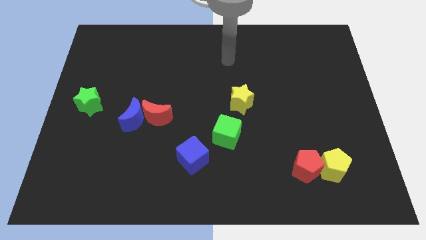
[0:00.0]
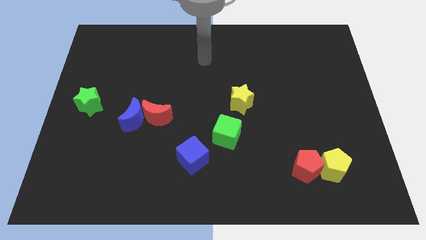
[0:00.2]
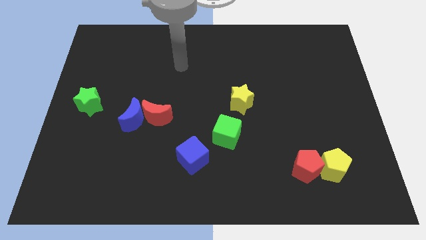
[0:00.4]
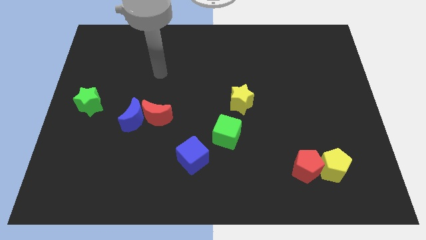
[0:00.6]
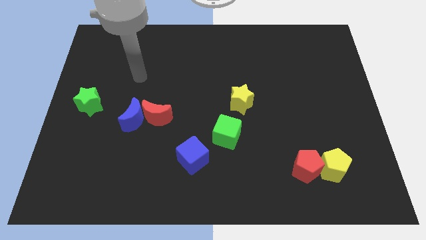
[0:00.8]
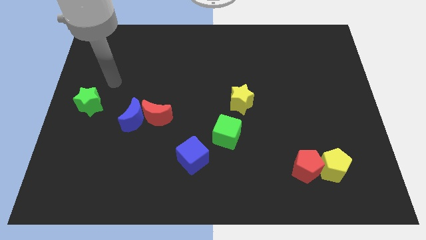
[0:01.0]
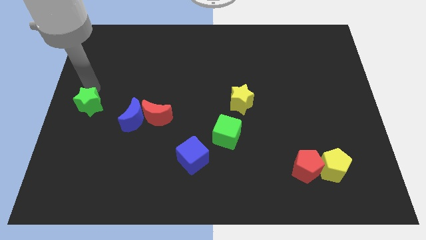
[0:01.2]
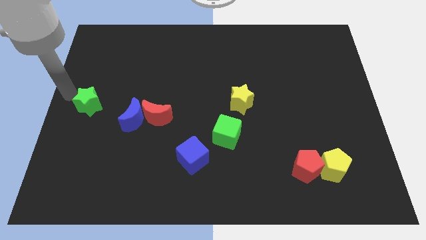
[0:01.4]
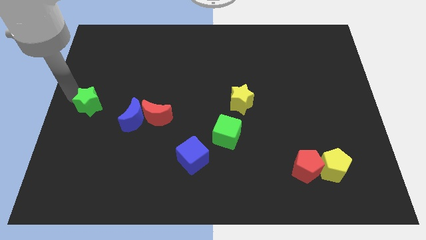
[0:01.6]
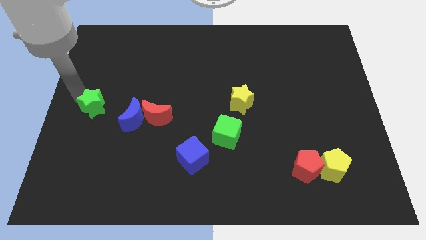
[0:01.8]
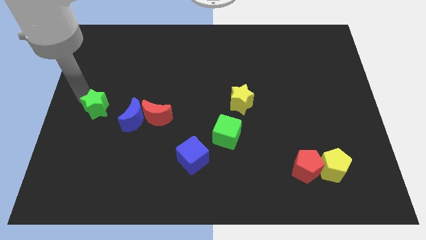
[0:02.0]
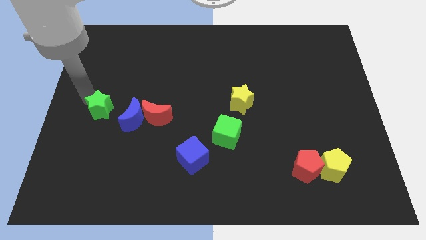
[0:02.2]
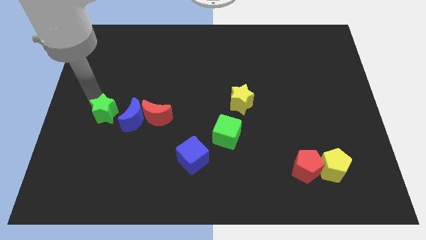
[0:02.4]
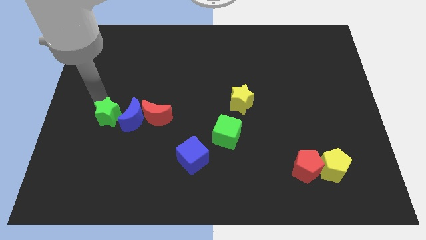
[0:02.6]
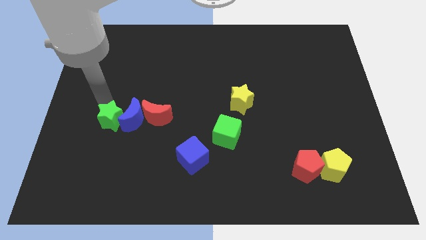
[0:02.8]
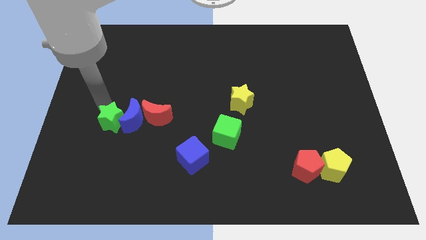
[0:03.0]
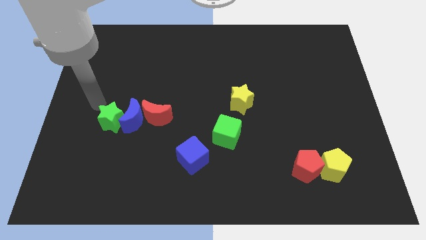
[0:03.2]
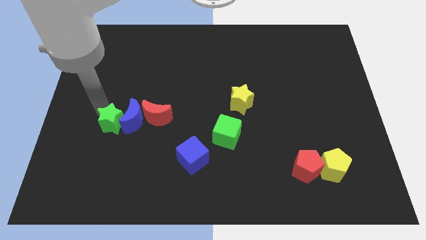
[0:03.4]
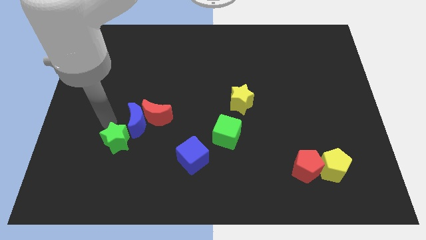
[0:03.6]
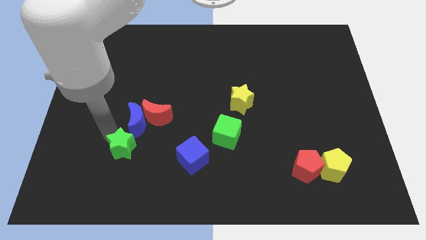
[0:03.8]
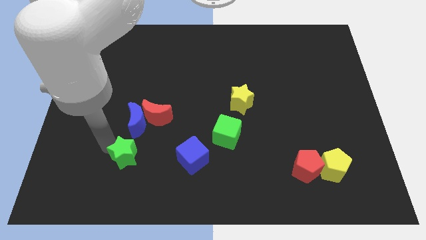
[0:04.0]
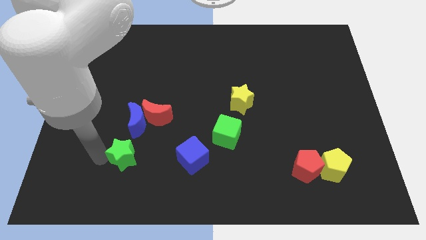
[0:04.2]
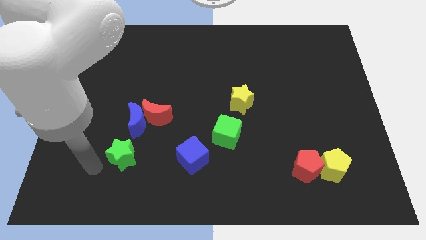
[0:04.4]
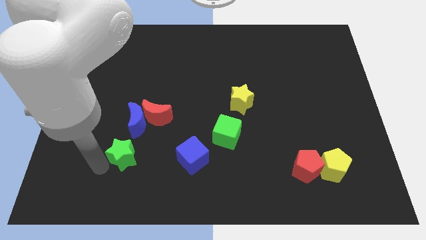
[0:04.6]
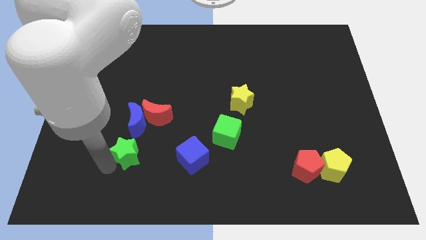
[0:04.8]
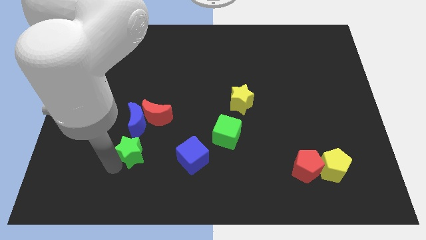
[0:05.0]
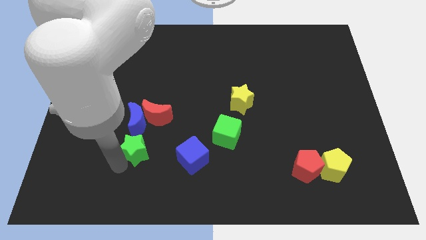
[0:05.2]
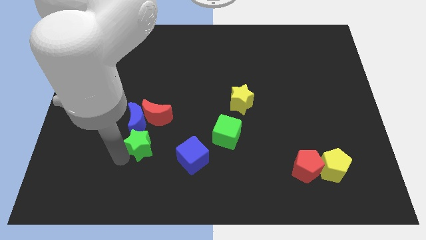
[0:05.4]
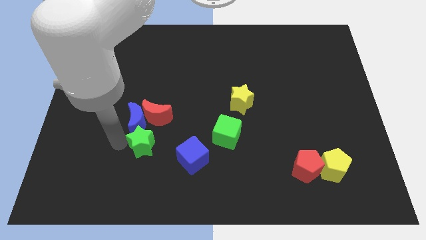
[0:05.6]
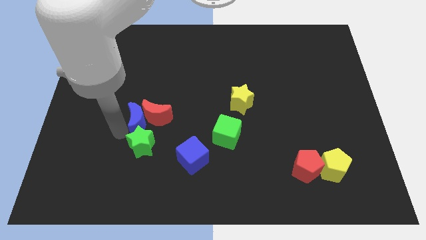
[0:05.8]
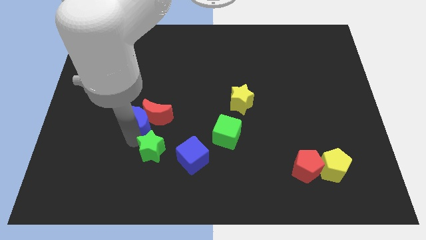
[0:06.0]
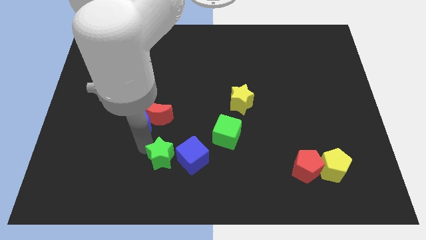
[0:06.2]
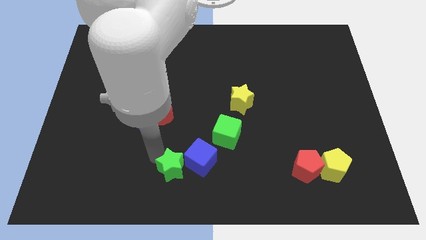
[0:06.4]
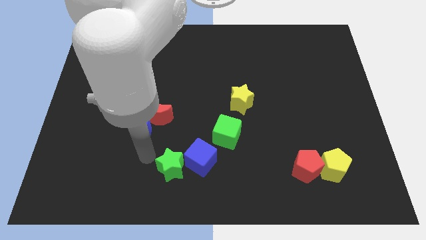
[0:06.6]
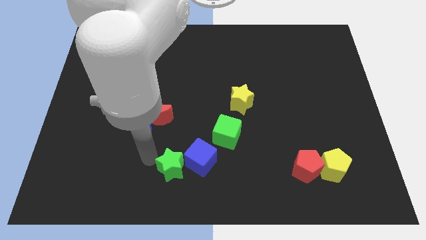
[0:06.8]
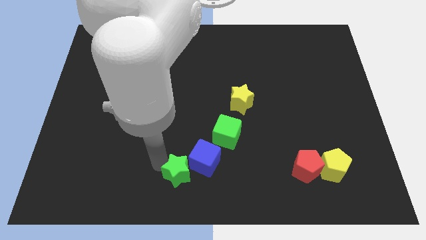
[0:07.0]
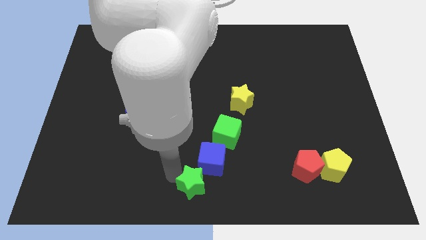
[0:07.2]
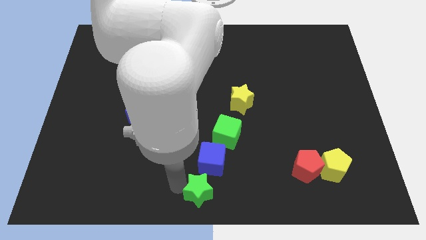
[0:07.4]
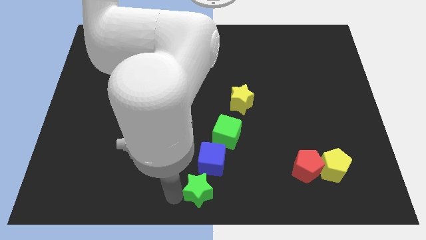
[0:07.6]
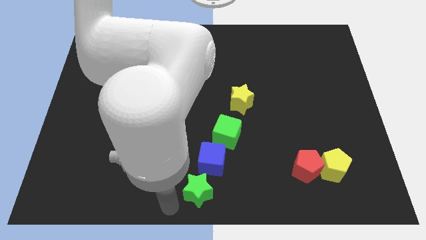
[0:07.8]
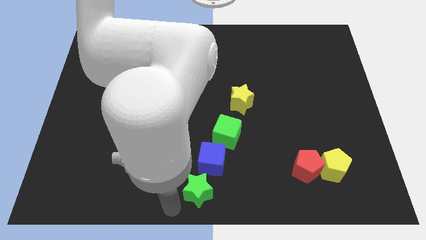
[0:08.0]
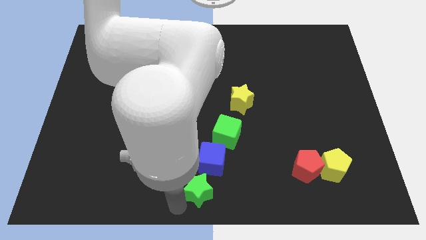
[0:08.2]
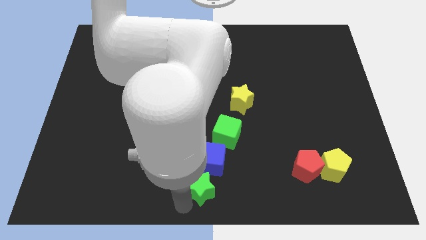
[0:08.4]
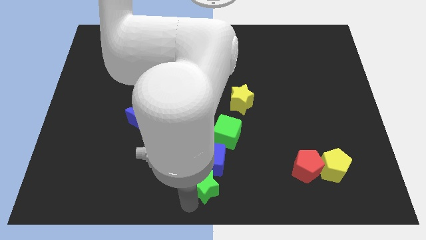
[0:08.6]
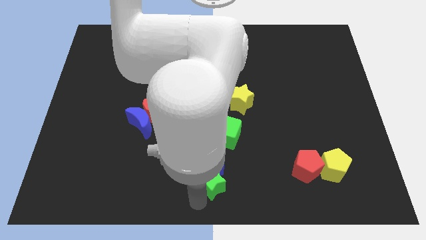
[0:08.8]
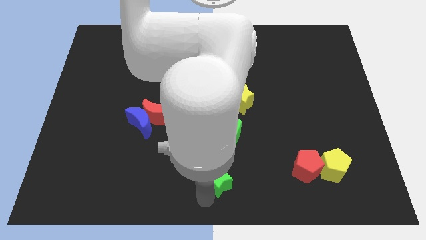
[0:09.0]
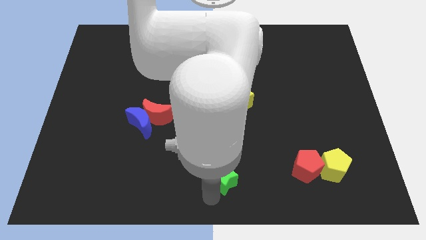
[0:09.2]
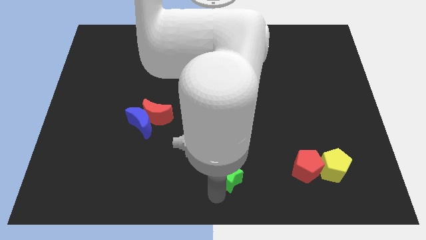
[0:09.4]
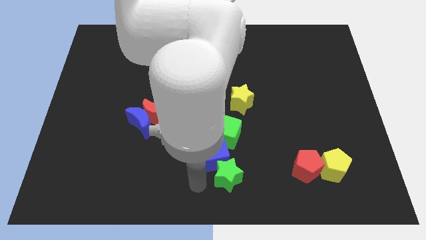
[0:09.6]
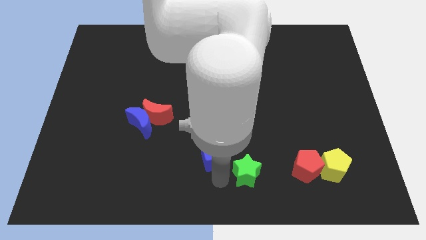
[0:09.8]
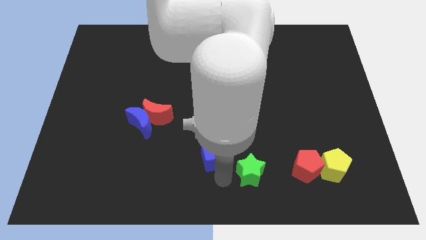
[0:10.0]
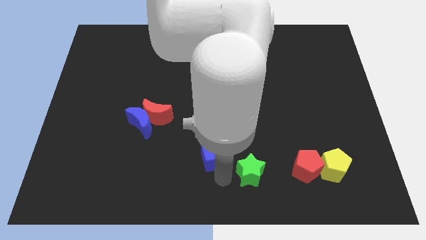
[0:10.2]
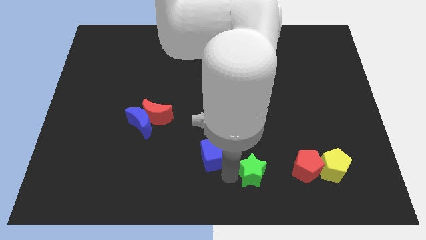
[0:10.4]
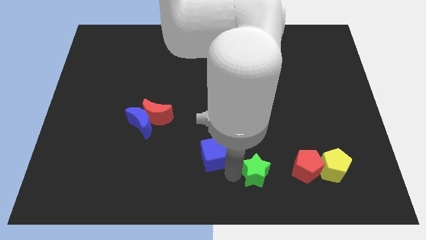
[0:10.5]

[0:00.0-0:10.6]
slide the green star just left of the yellow pentagon

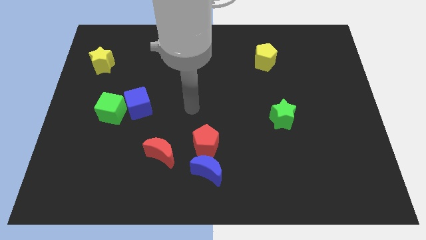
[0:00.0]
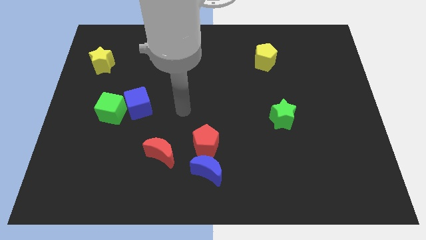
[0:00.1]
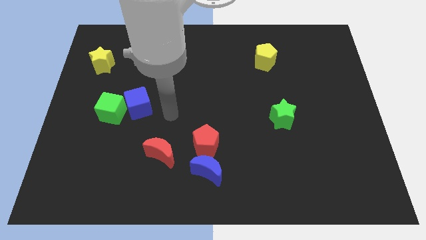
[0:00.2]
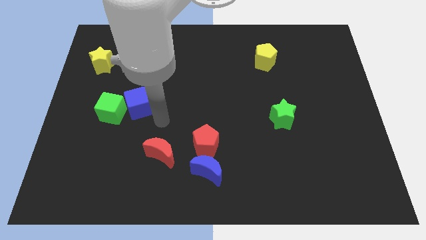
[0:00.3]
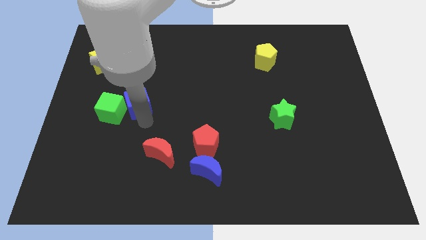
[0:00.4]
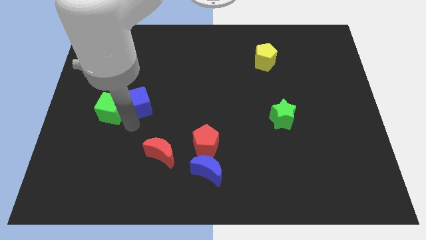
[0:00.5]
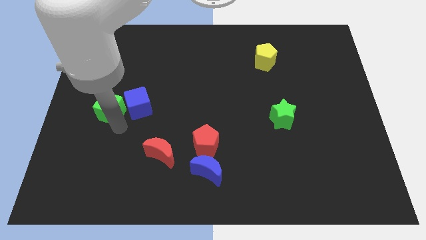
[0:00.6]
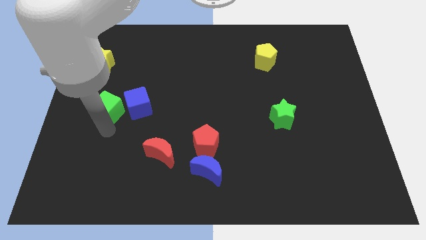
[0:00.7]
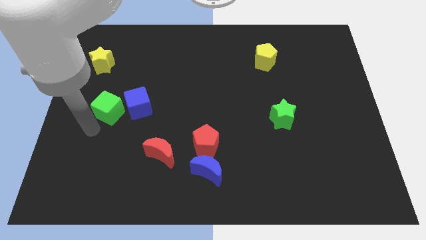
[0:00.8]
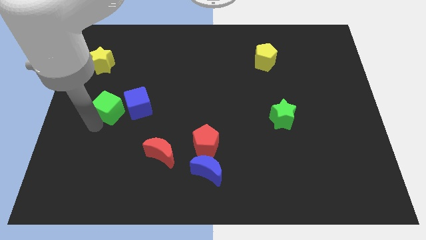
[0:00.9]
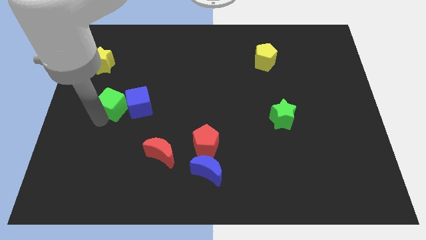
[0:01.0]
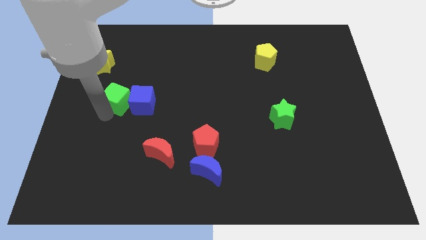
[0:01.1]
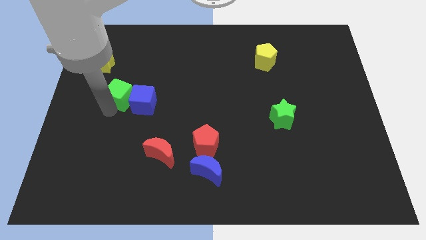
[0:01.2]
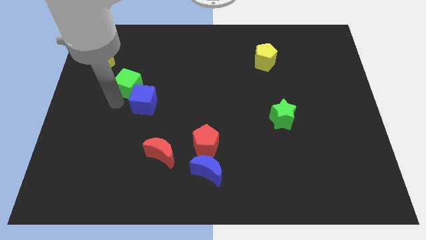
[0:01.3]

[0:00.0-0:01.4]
slide the green cube above the blue cube

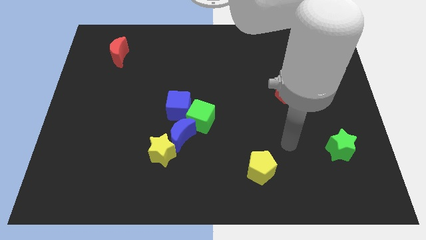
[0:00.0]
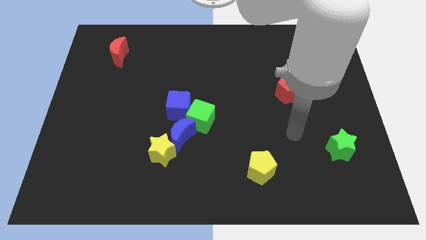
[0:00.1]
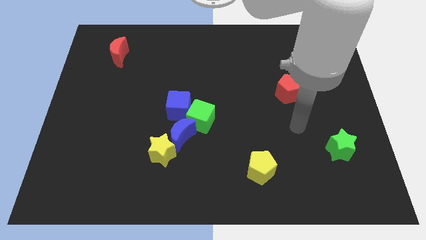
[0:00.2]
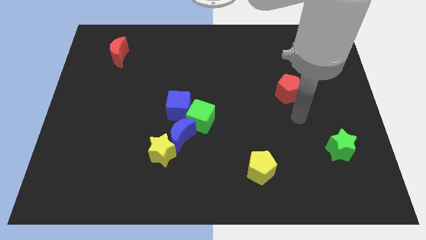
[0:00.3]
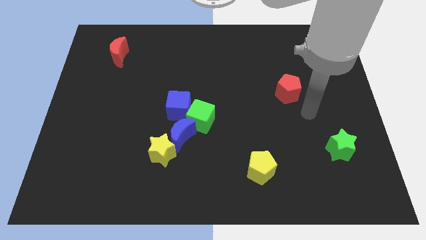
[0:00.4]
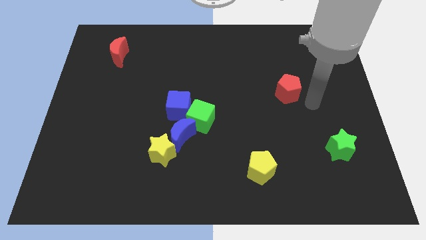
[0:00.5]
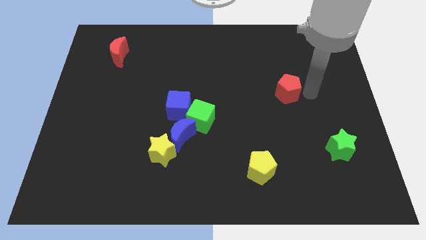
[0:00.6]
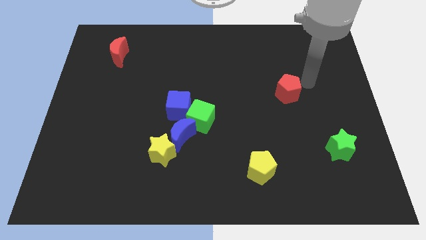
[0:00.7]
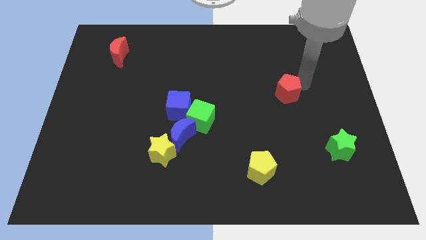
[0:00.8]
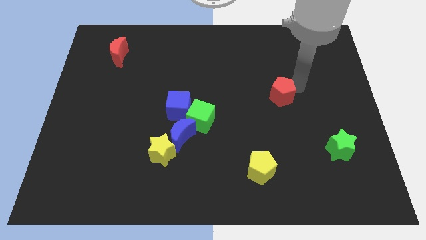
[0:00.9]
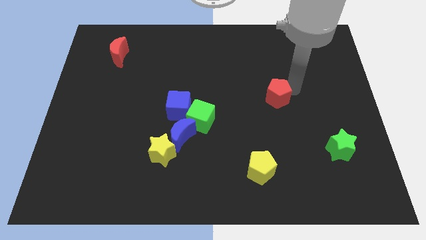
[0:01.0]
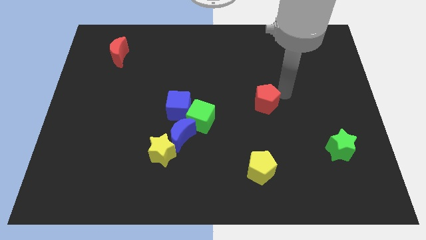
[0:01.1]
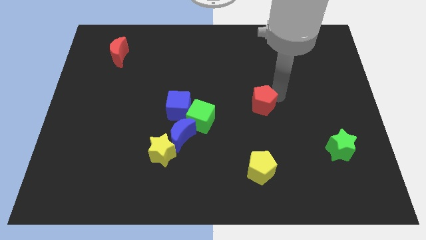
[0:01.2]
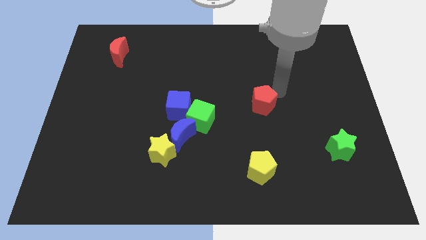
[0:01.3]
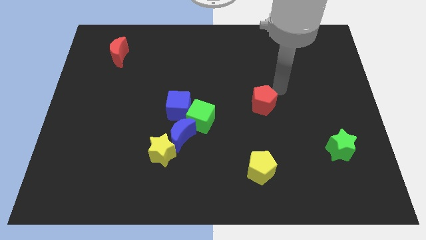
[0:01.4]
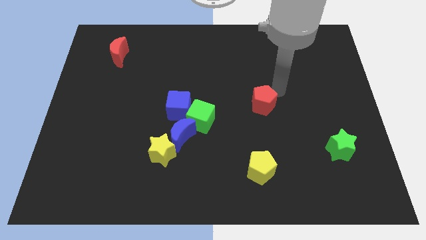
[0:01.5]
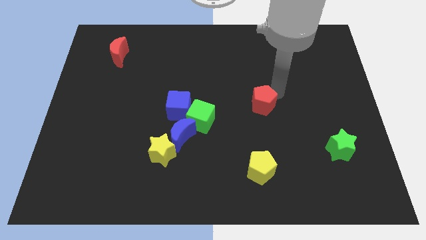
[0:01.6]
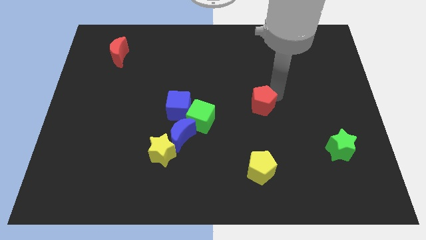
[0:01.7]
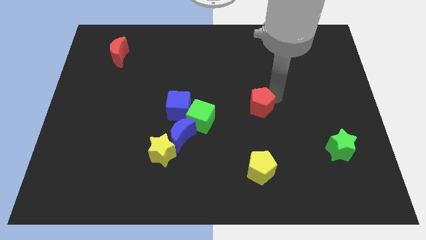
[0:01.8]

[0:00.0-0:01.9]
push the red pentagon just right of the green cube
